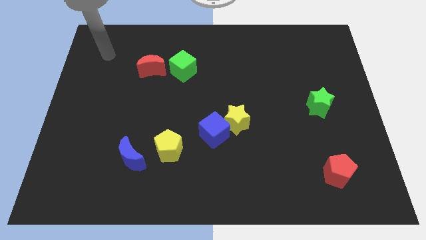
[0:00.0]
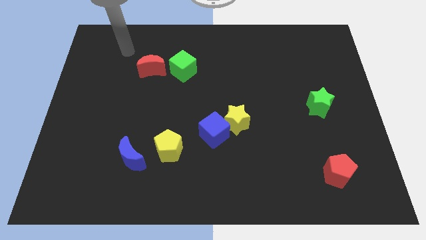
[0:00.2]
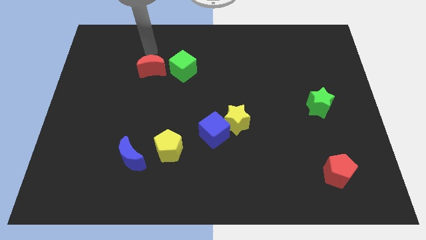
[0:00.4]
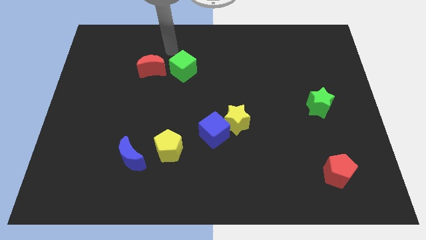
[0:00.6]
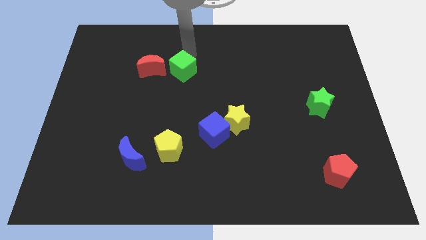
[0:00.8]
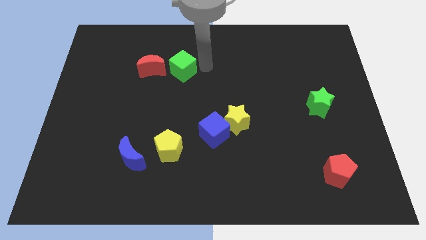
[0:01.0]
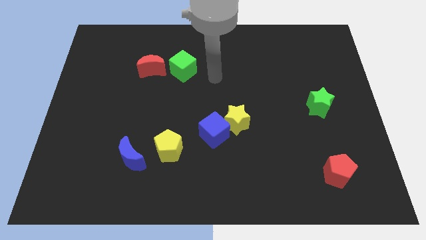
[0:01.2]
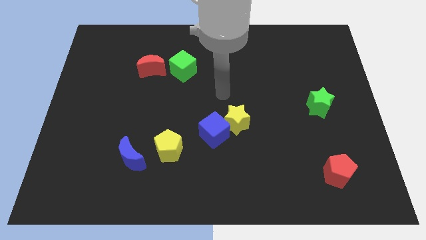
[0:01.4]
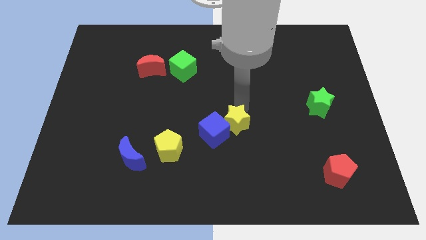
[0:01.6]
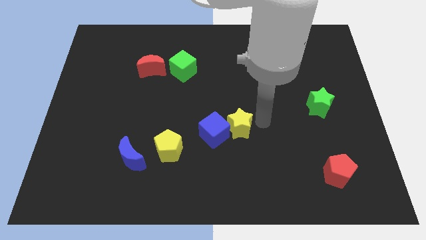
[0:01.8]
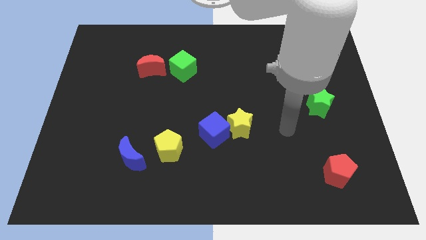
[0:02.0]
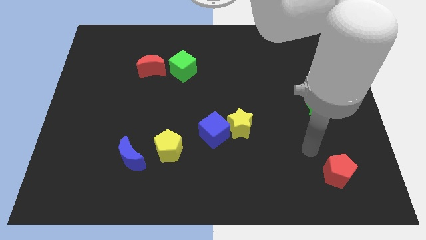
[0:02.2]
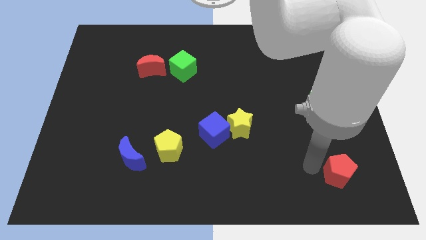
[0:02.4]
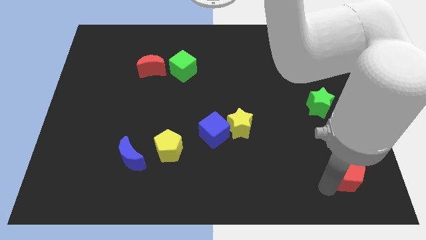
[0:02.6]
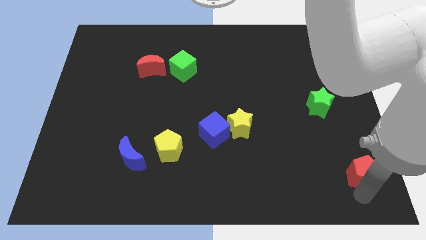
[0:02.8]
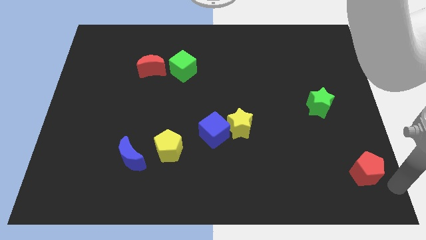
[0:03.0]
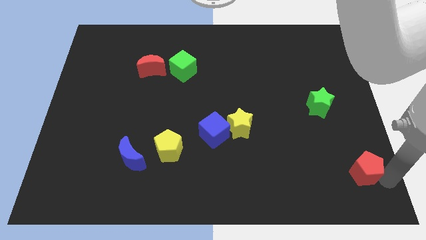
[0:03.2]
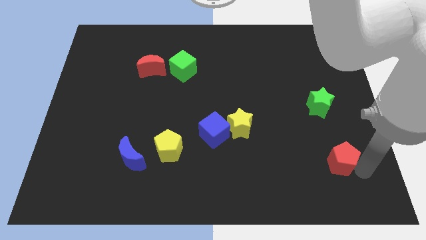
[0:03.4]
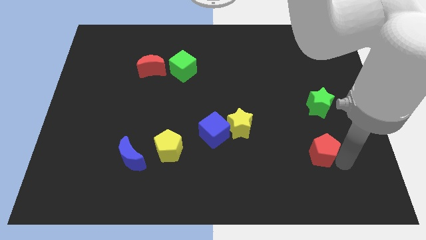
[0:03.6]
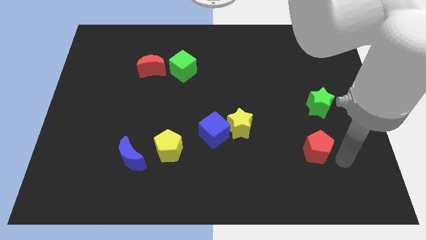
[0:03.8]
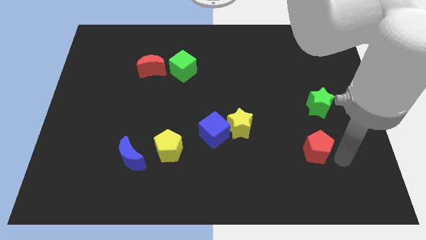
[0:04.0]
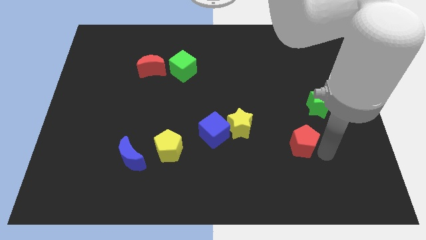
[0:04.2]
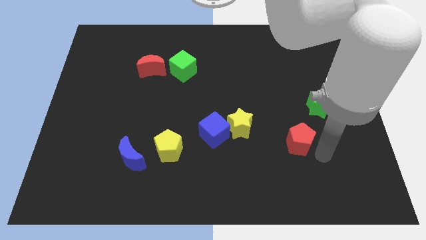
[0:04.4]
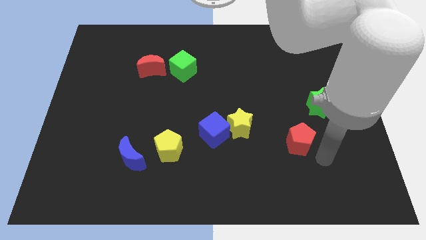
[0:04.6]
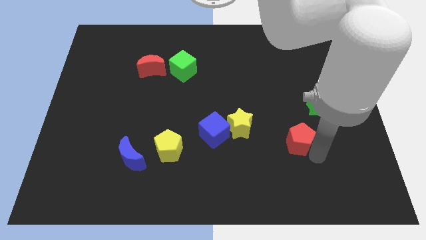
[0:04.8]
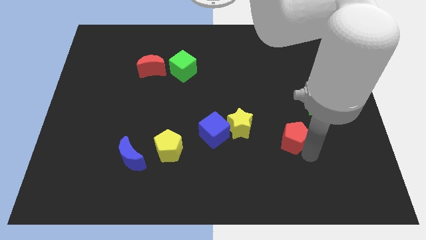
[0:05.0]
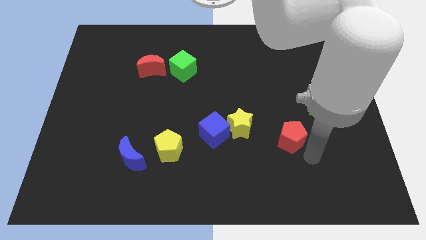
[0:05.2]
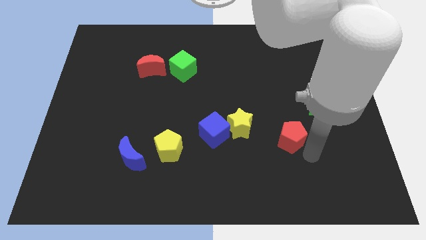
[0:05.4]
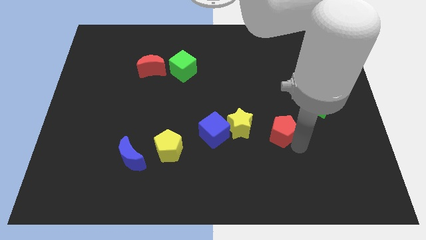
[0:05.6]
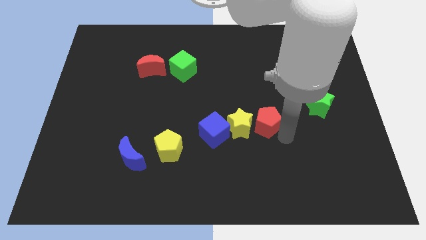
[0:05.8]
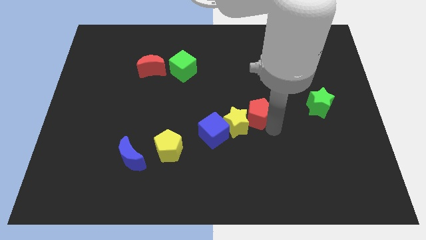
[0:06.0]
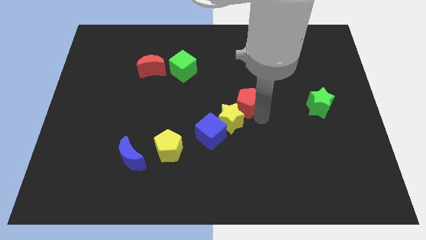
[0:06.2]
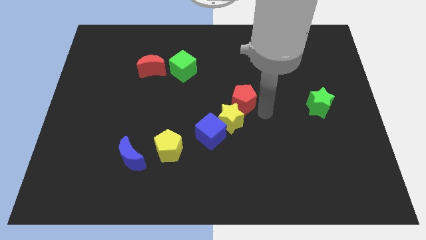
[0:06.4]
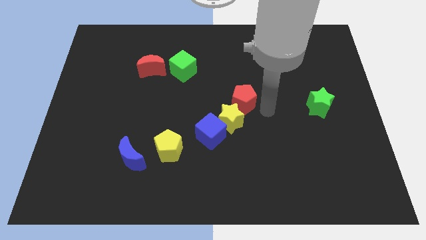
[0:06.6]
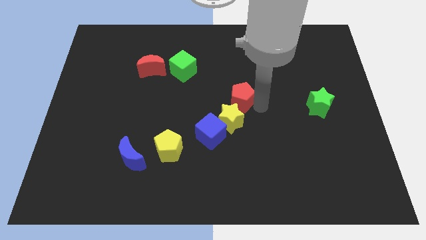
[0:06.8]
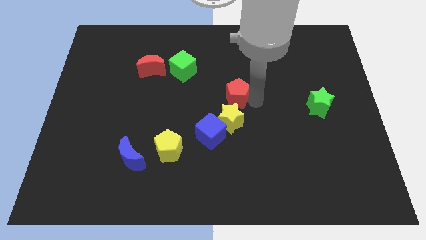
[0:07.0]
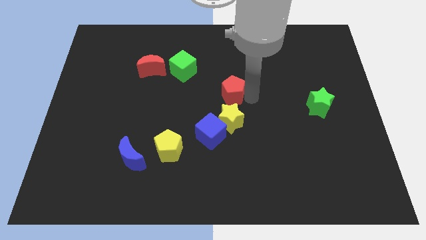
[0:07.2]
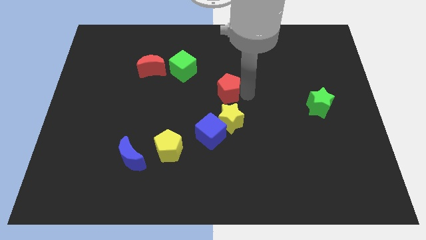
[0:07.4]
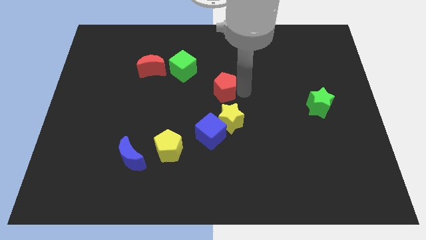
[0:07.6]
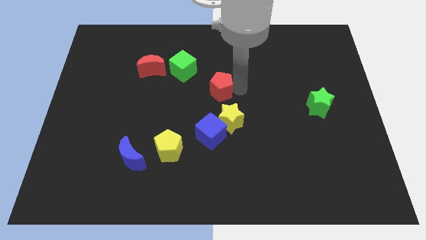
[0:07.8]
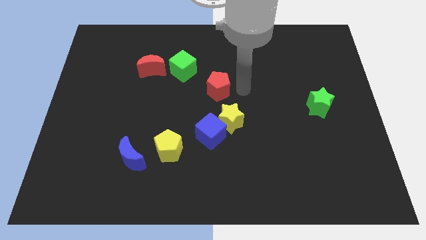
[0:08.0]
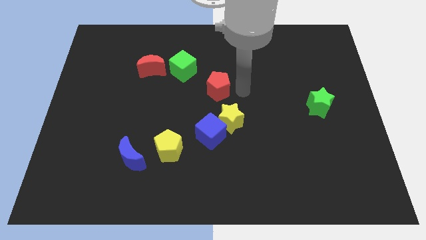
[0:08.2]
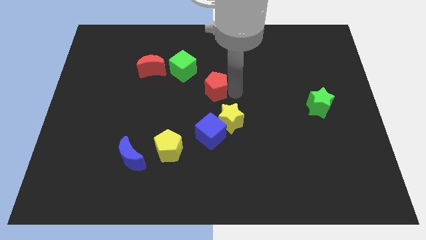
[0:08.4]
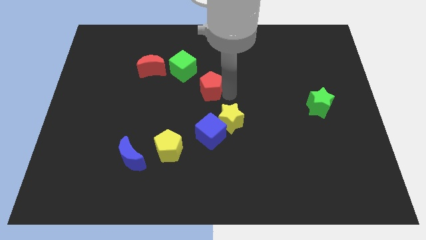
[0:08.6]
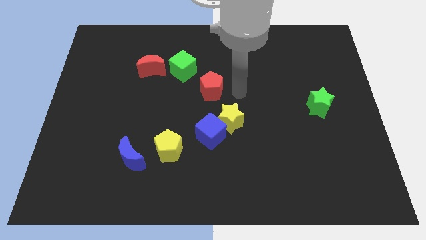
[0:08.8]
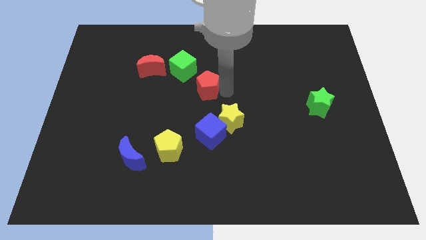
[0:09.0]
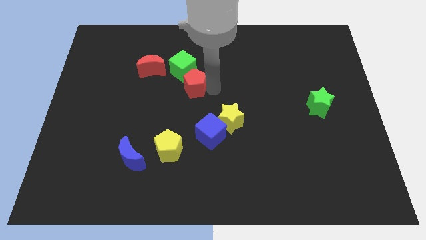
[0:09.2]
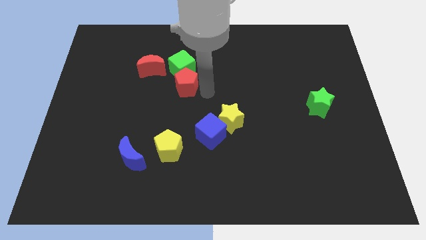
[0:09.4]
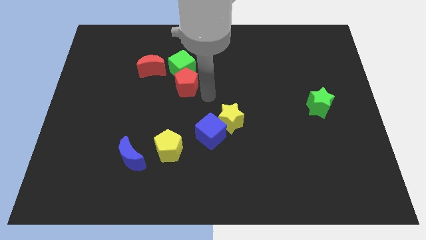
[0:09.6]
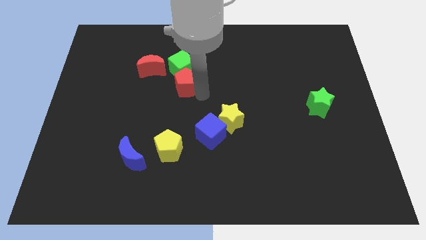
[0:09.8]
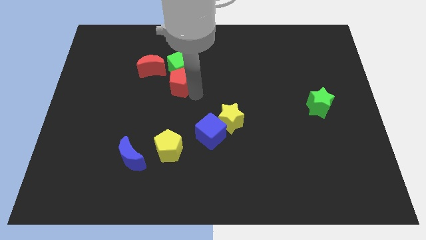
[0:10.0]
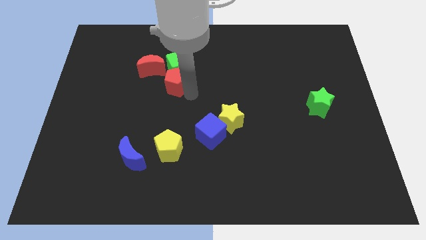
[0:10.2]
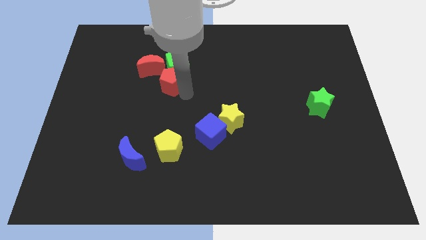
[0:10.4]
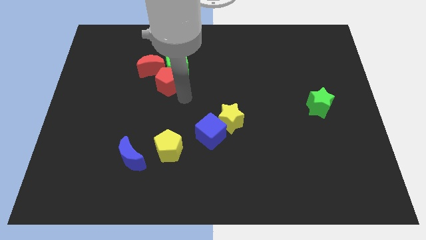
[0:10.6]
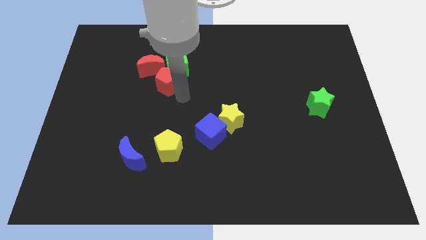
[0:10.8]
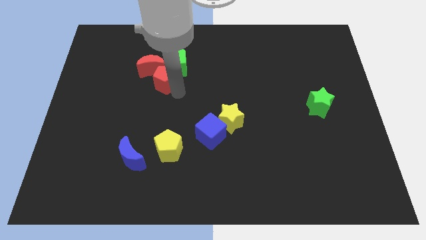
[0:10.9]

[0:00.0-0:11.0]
move the red pentagon next to the red moon

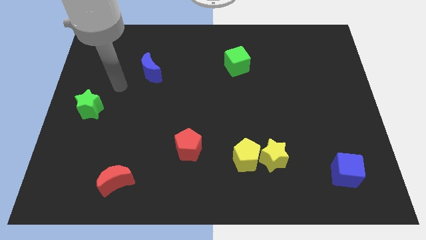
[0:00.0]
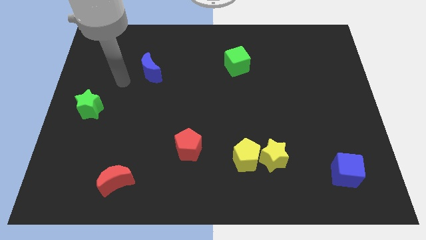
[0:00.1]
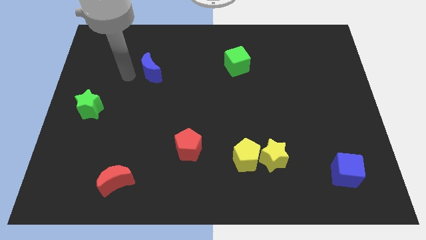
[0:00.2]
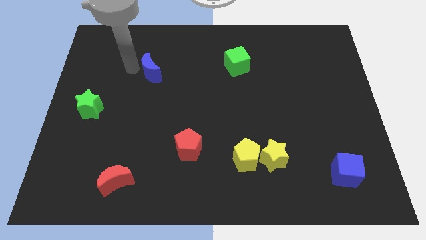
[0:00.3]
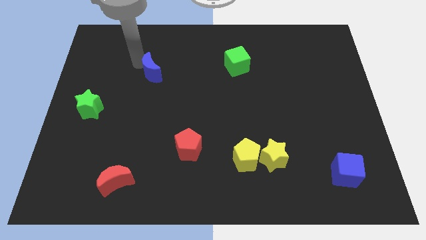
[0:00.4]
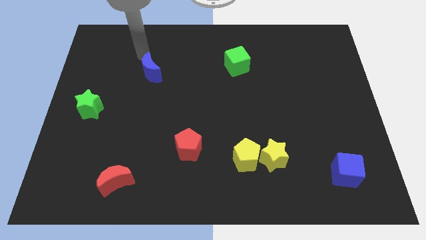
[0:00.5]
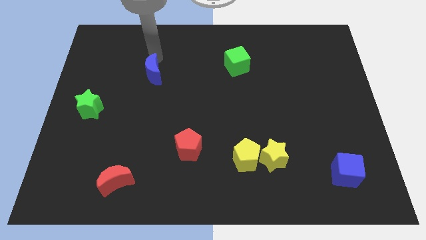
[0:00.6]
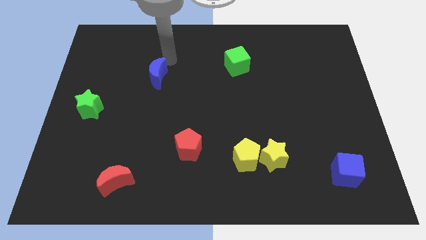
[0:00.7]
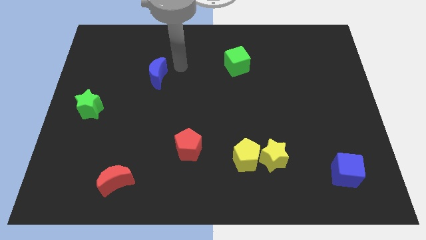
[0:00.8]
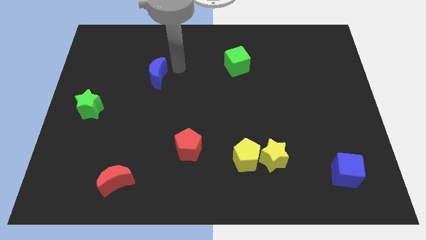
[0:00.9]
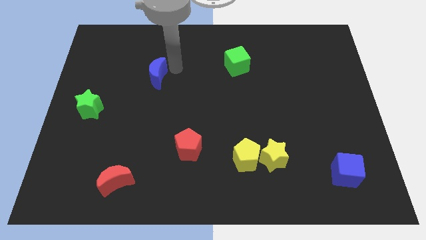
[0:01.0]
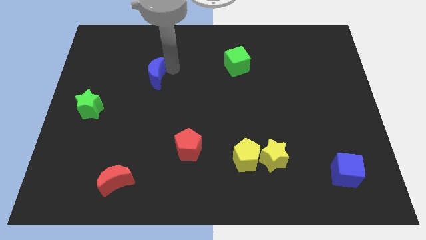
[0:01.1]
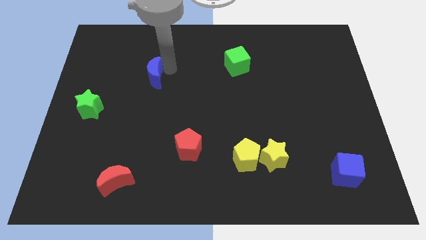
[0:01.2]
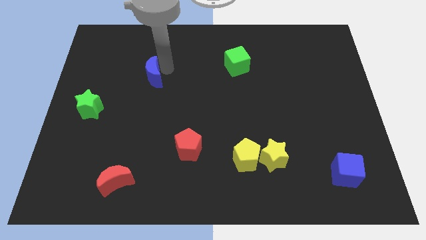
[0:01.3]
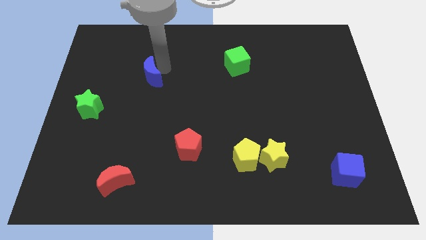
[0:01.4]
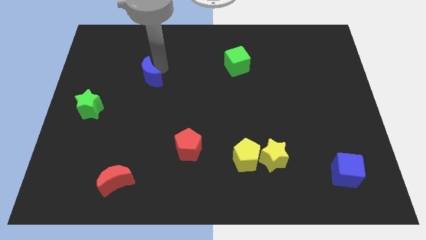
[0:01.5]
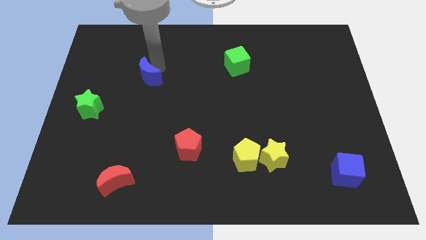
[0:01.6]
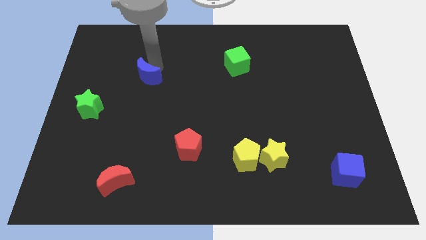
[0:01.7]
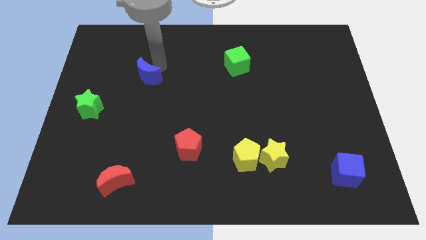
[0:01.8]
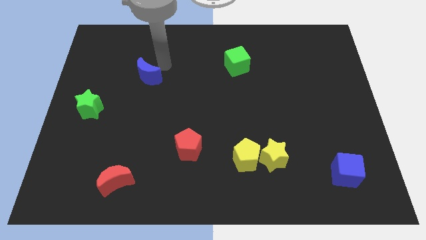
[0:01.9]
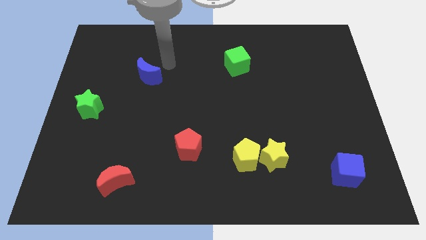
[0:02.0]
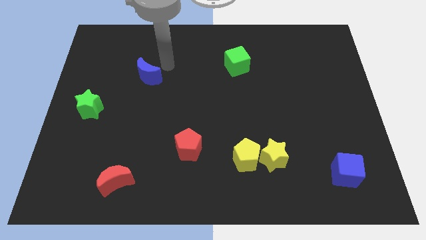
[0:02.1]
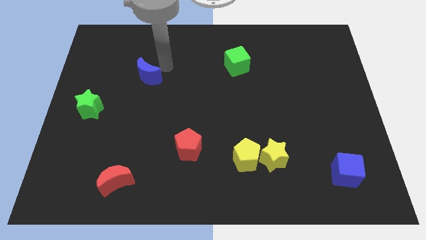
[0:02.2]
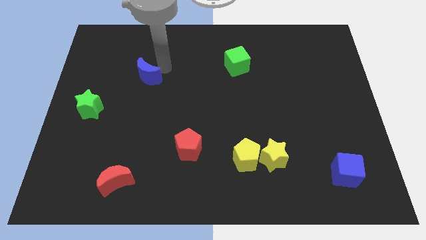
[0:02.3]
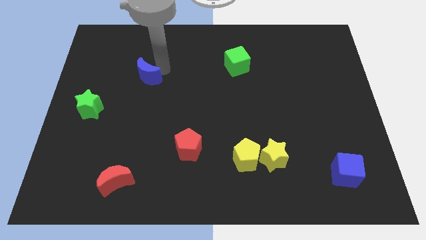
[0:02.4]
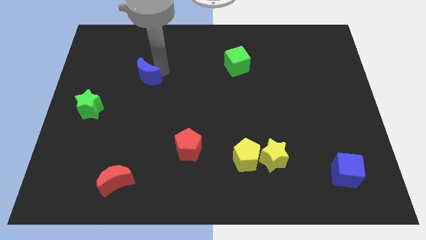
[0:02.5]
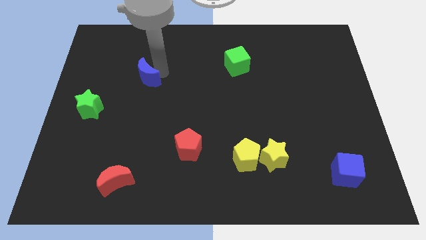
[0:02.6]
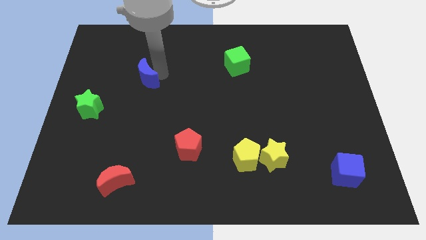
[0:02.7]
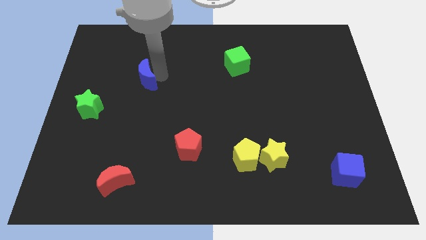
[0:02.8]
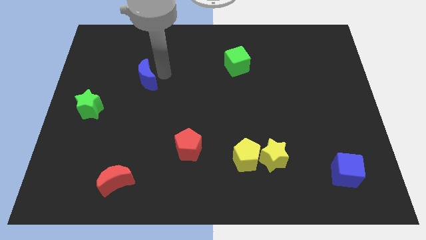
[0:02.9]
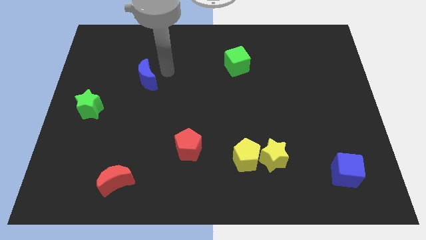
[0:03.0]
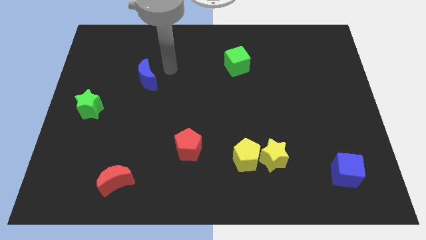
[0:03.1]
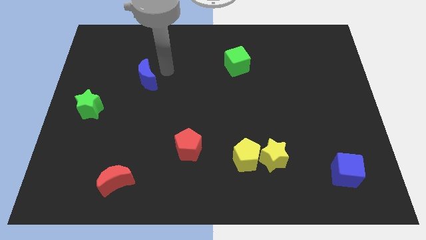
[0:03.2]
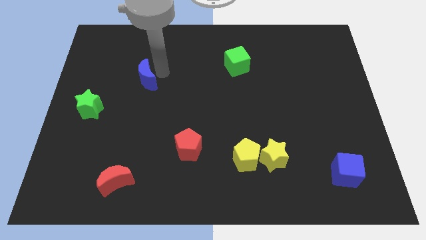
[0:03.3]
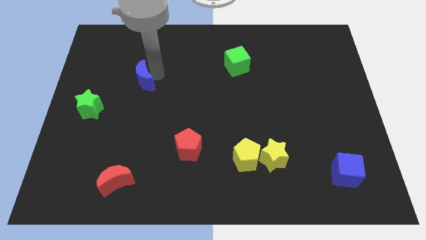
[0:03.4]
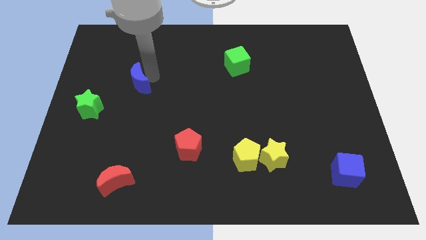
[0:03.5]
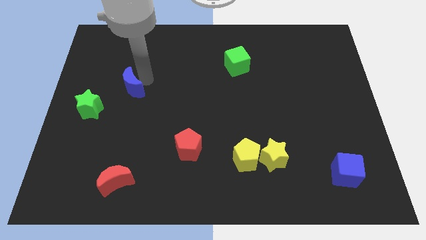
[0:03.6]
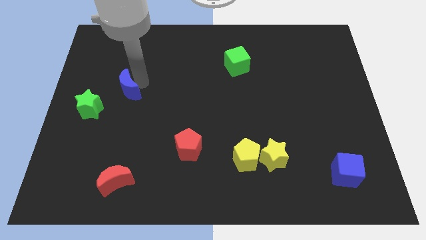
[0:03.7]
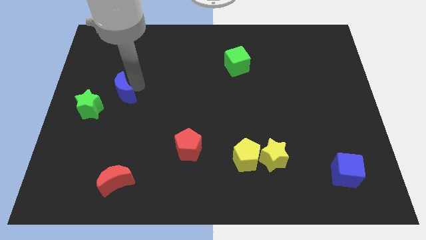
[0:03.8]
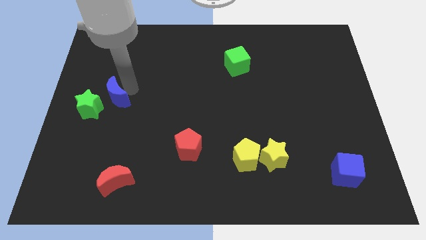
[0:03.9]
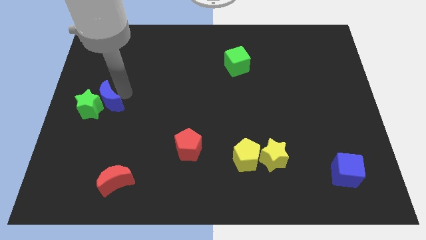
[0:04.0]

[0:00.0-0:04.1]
slide the blue moon to the green star
